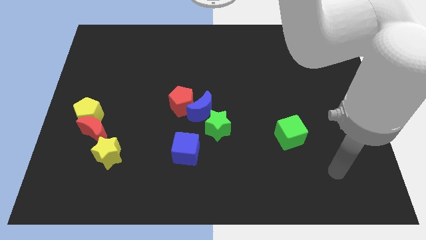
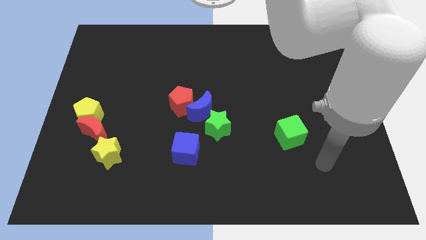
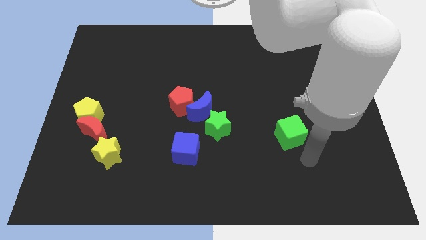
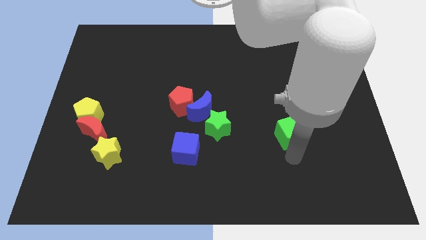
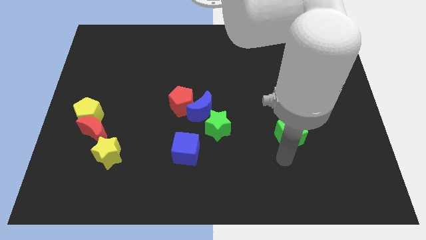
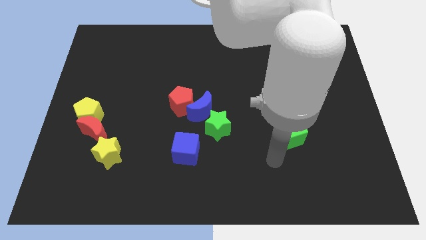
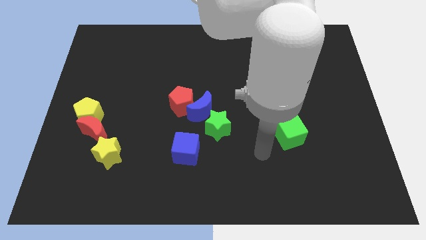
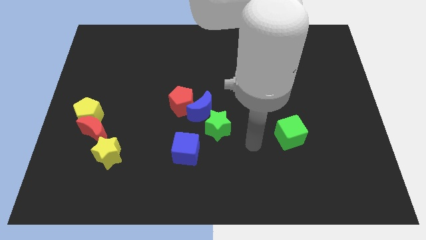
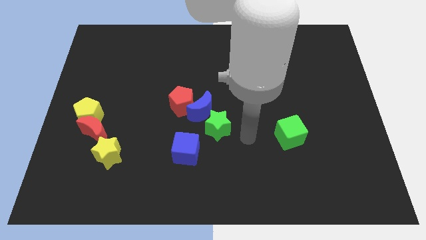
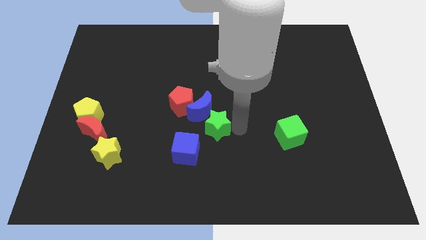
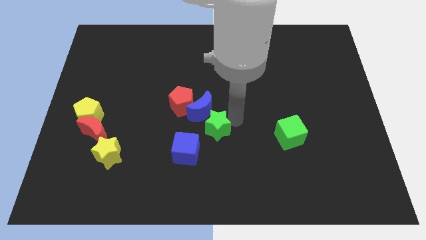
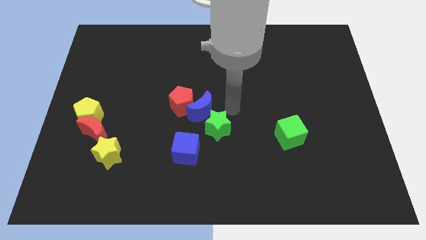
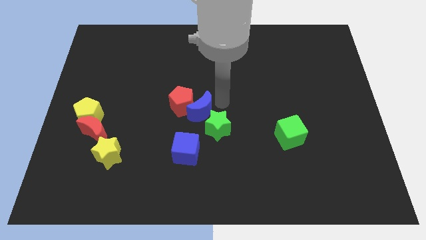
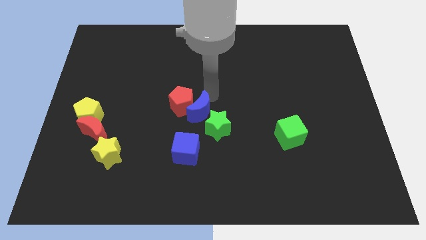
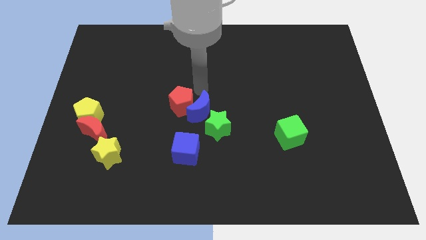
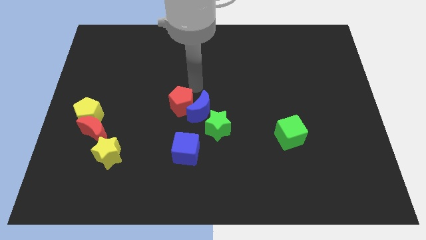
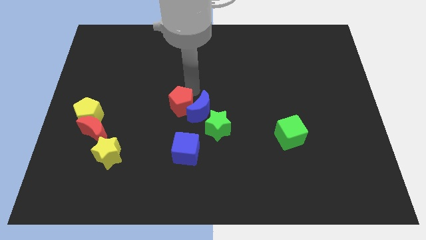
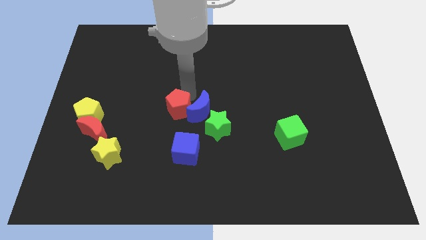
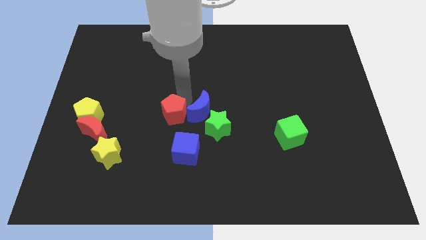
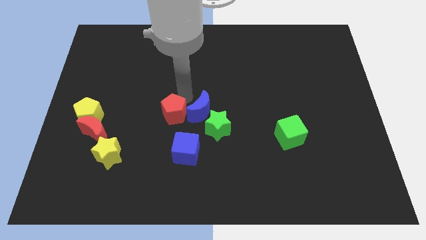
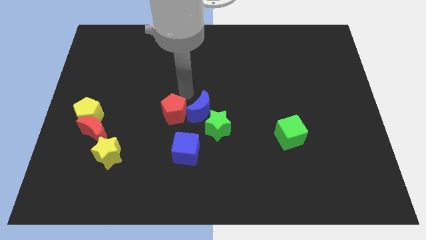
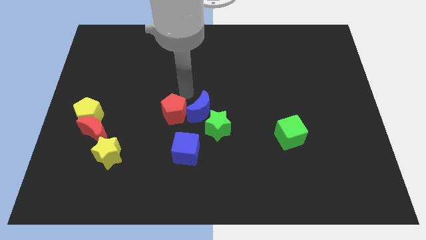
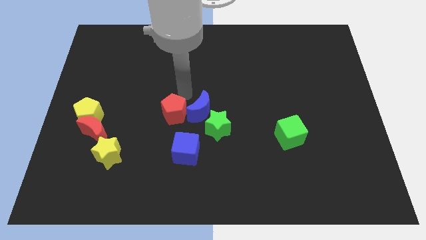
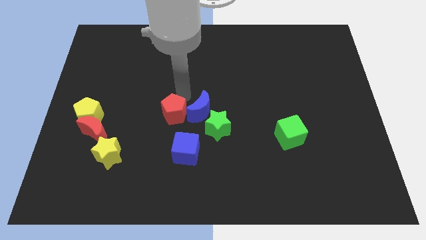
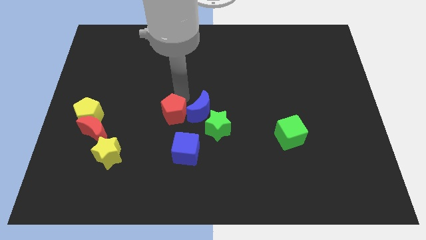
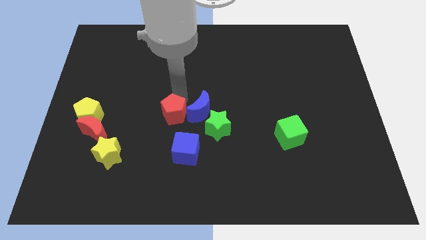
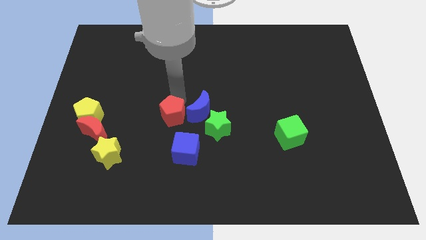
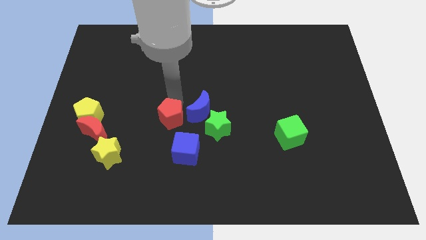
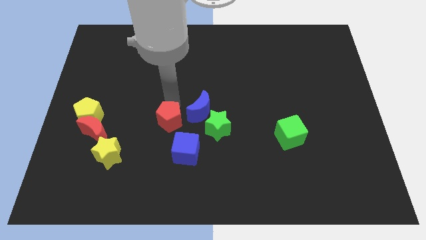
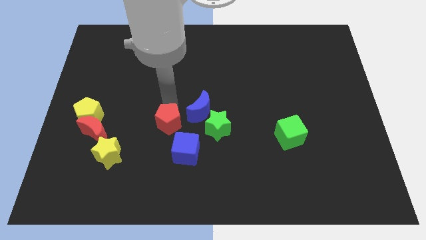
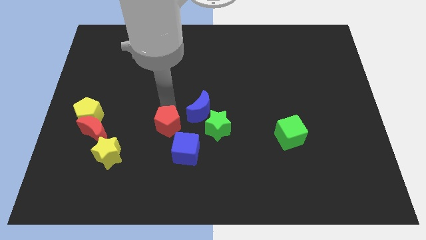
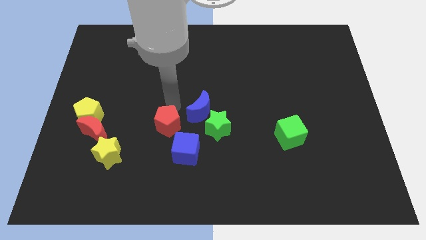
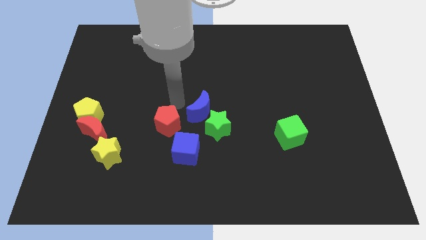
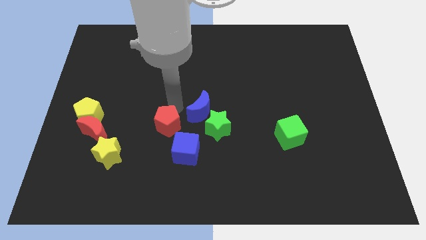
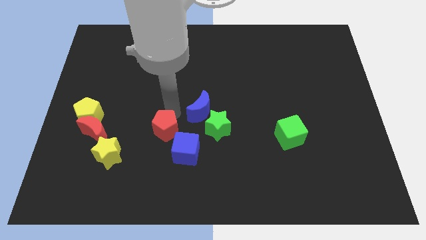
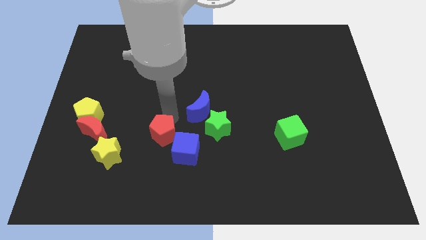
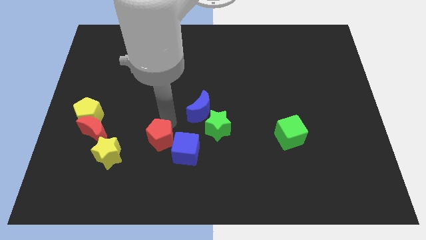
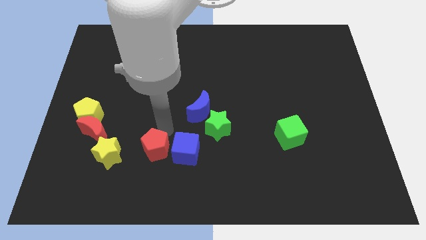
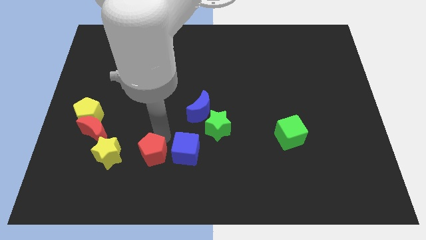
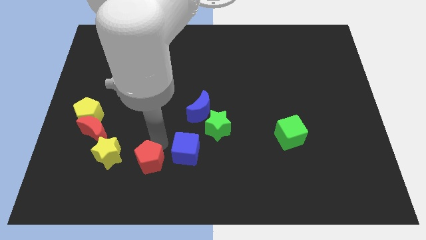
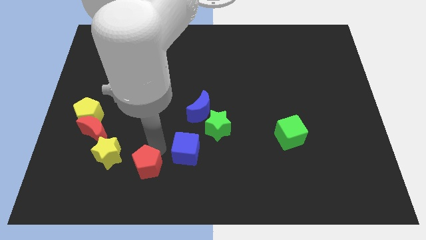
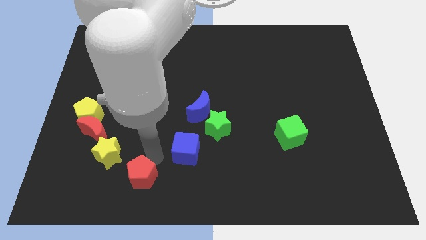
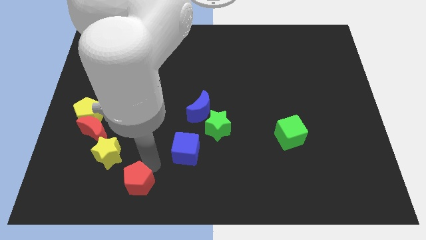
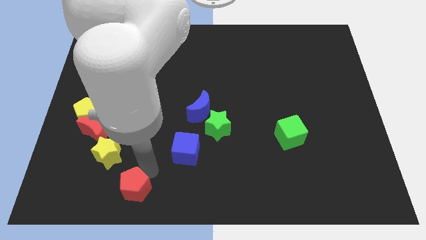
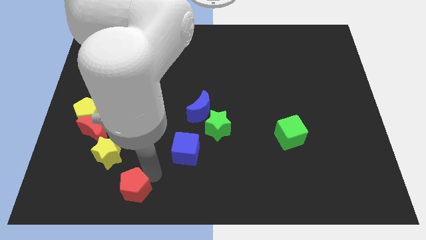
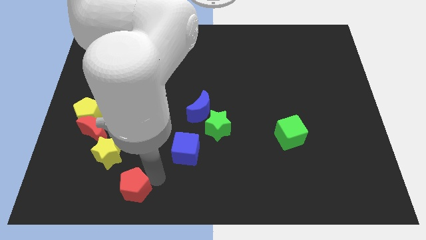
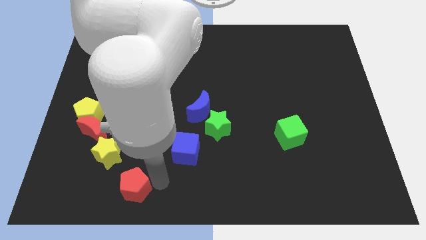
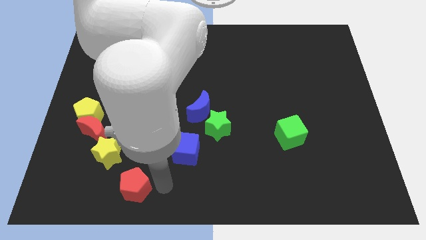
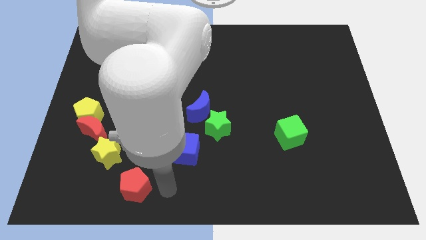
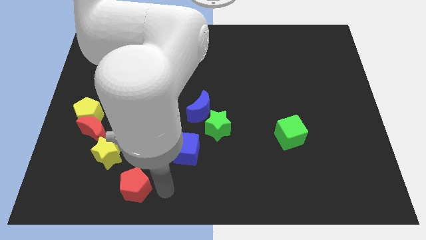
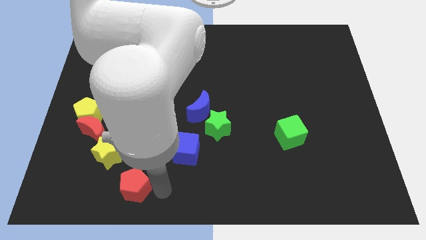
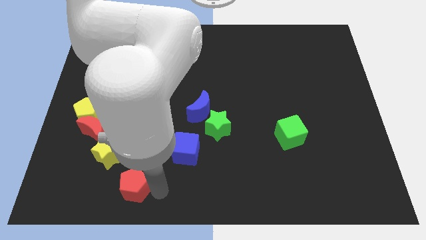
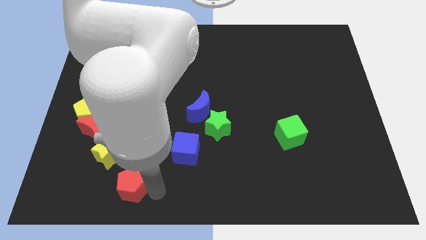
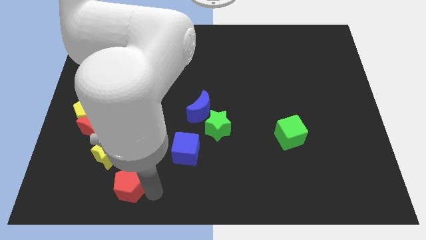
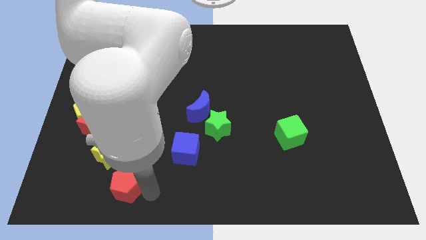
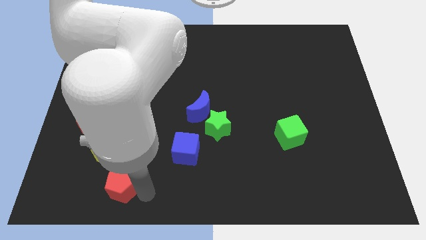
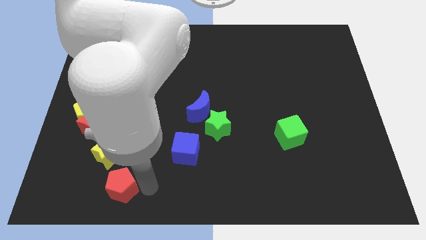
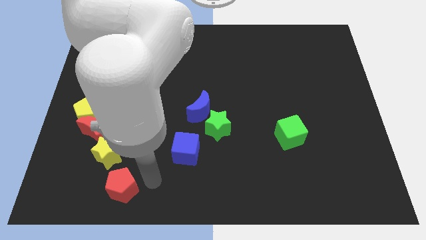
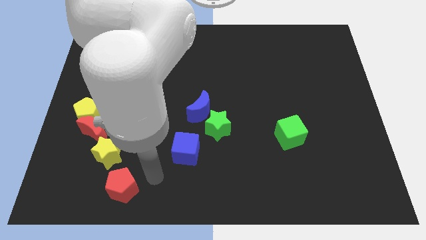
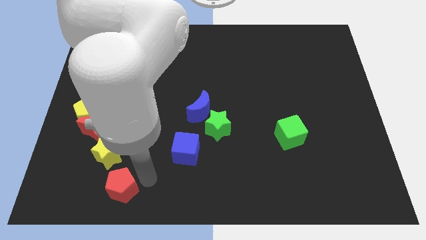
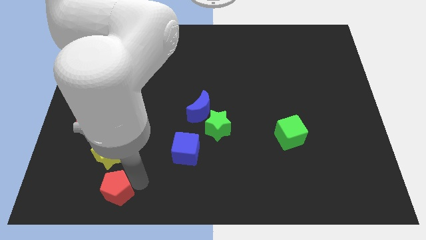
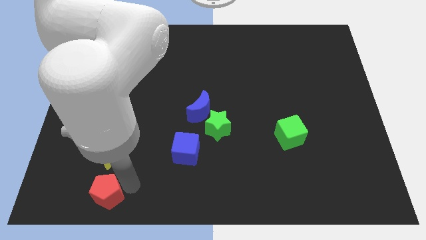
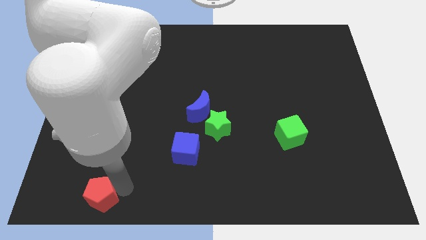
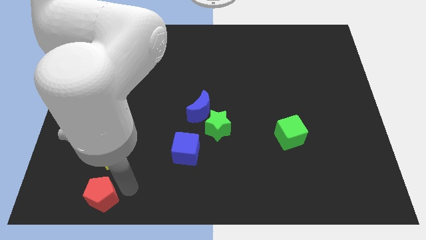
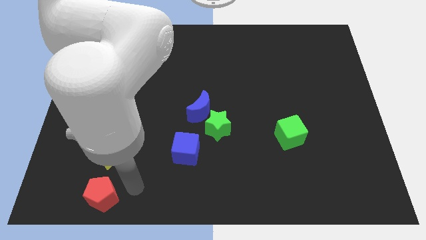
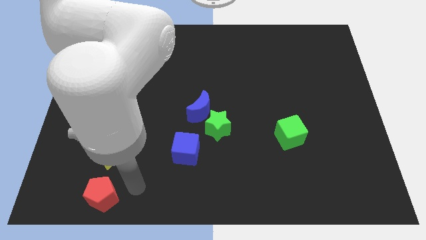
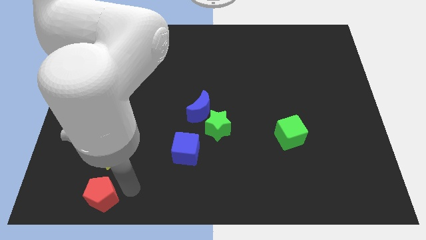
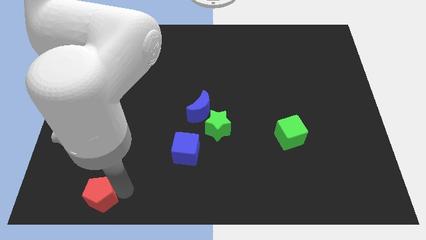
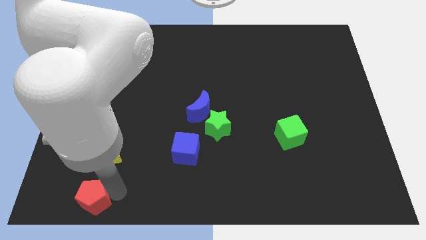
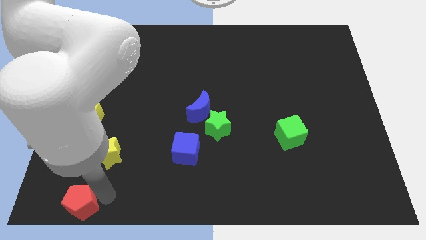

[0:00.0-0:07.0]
move the red pentagon to the lower left corner
